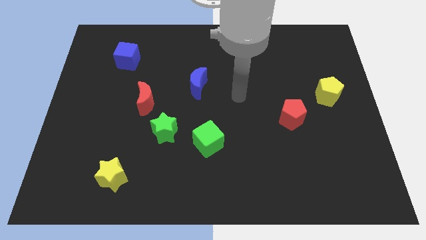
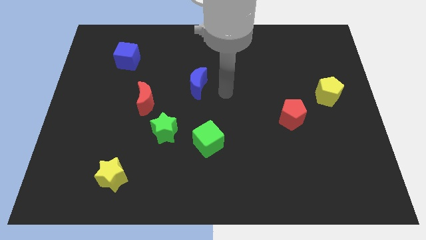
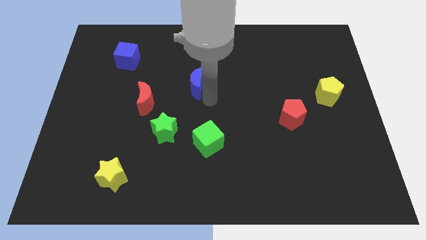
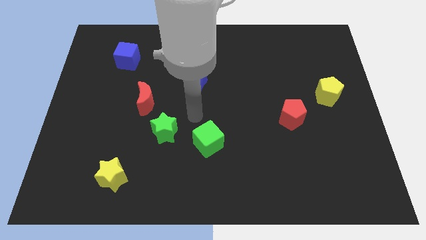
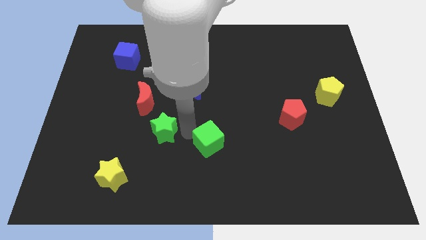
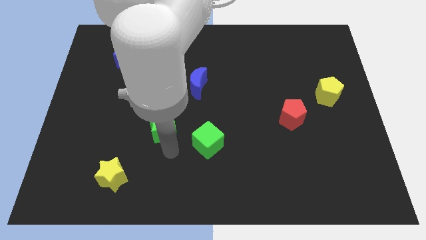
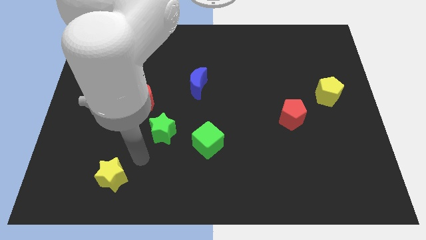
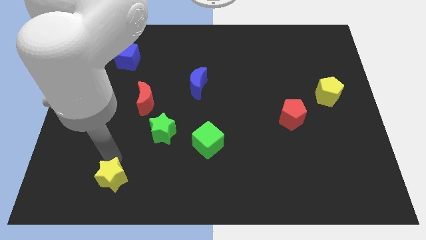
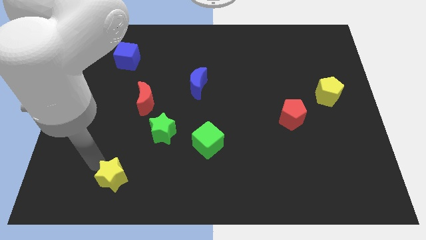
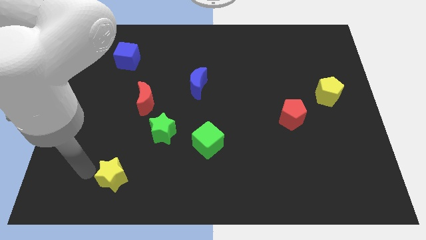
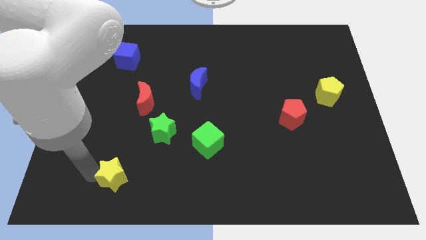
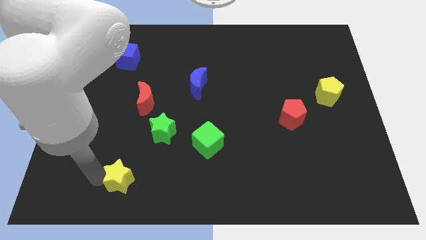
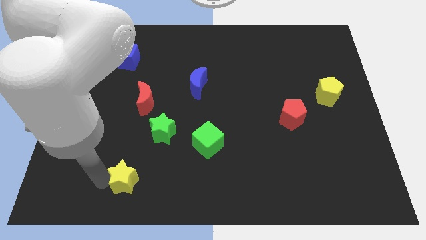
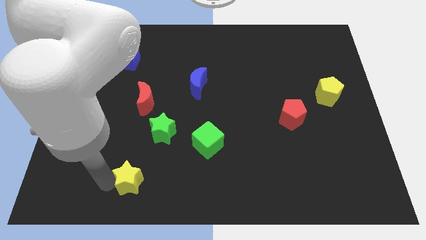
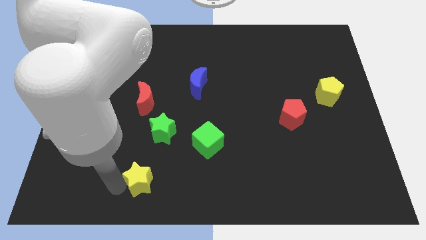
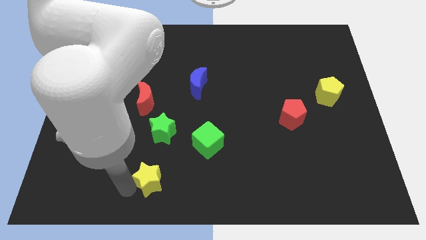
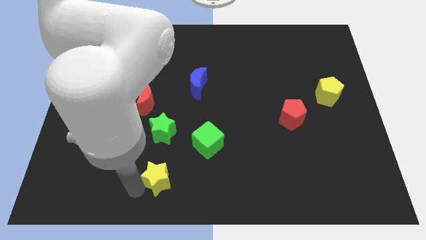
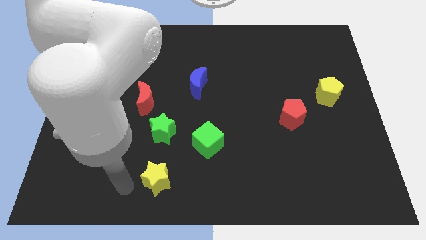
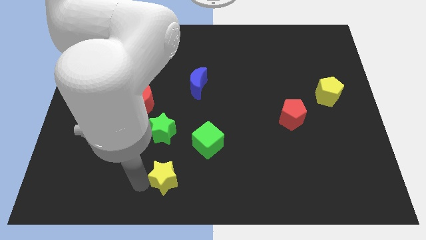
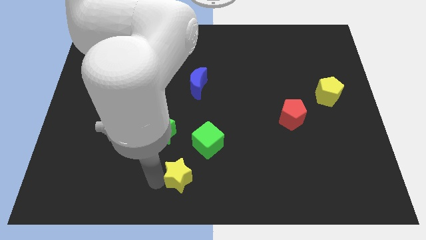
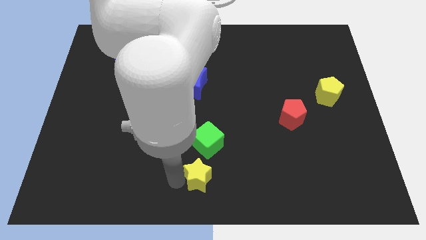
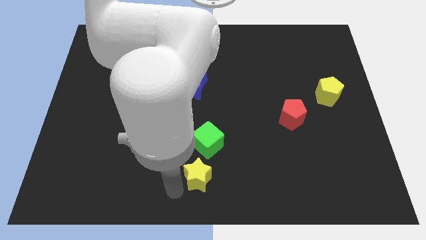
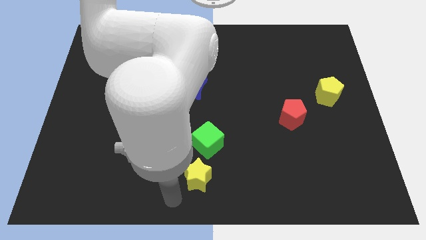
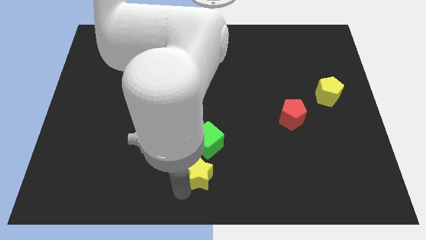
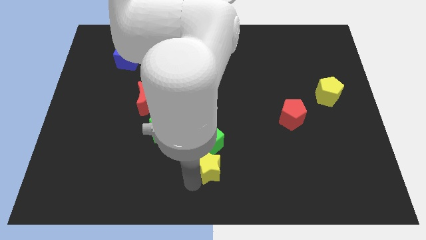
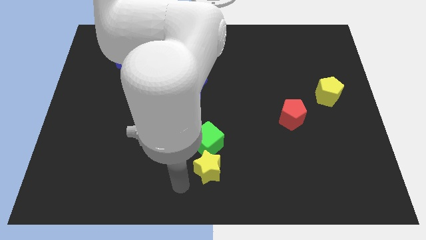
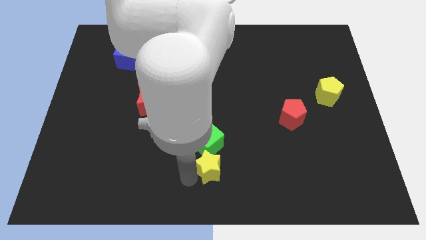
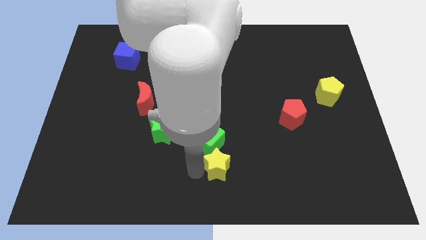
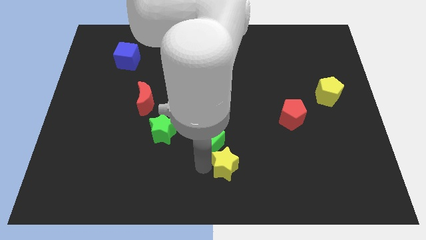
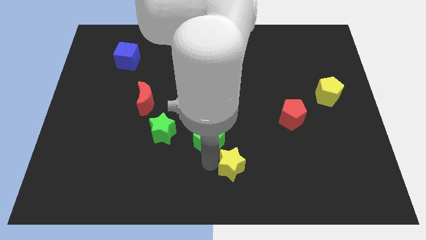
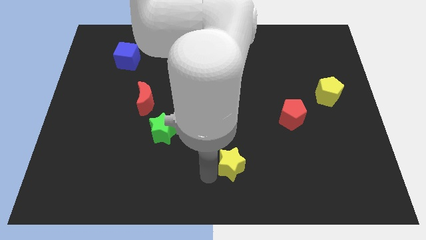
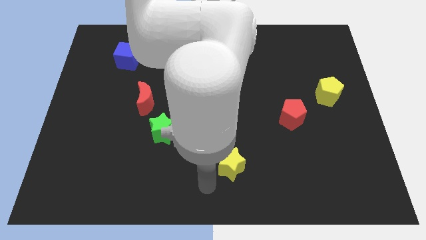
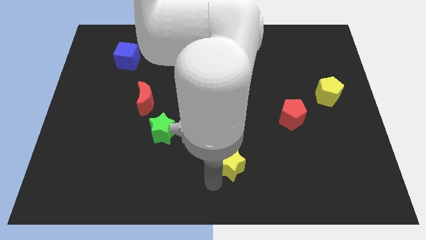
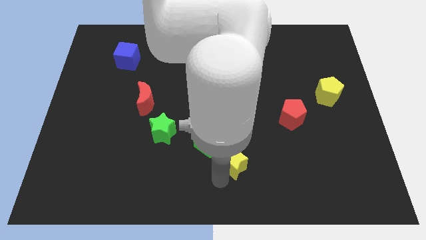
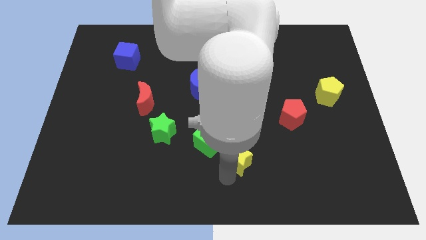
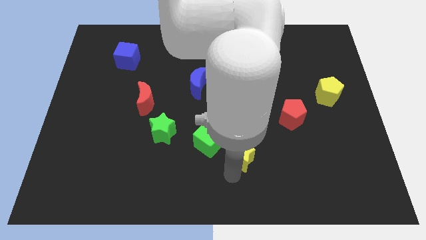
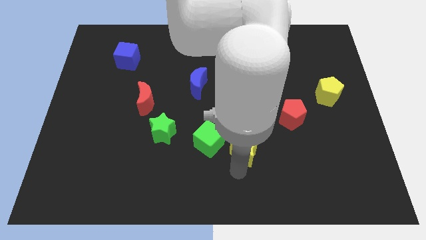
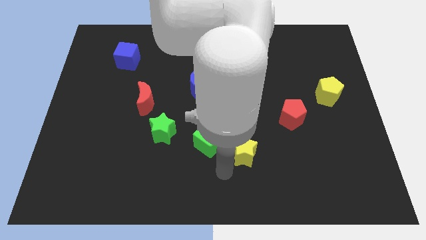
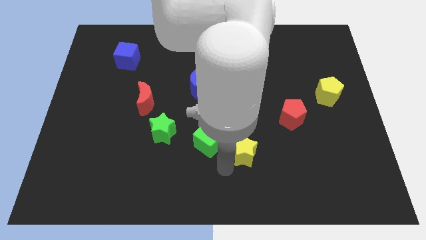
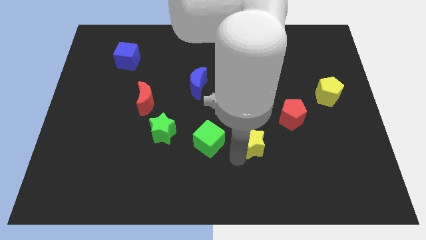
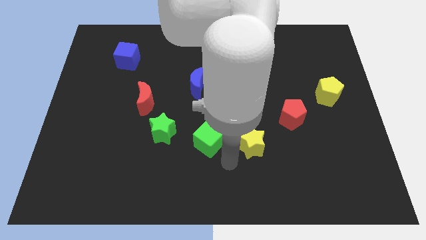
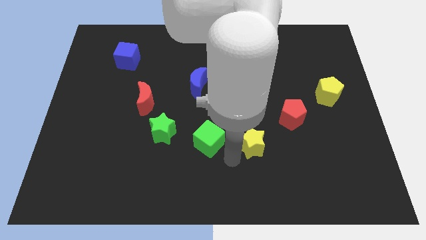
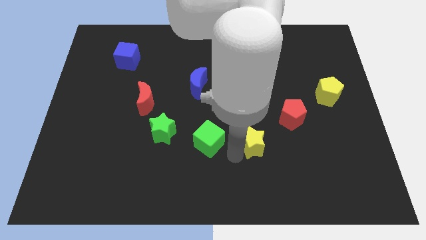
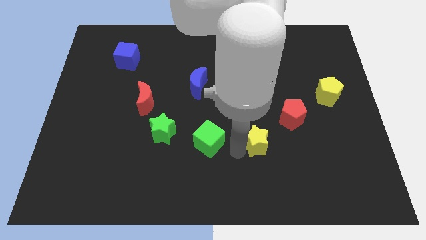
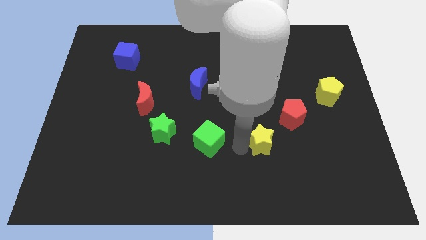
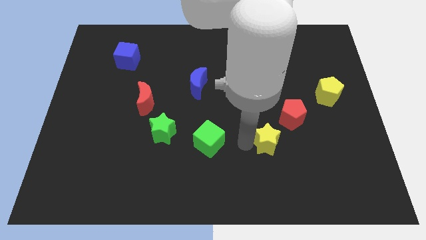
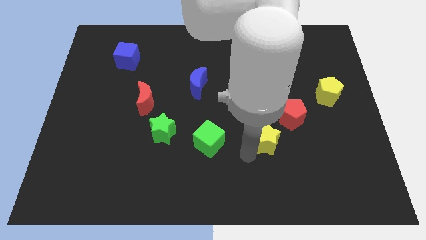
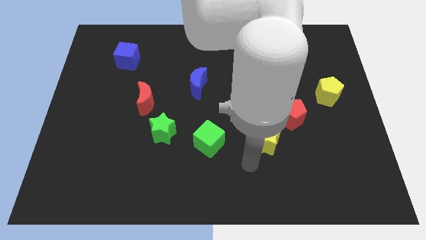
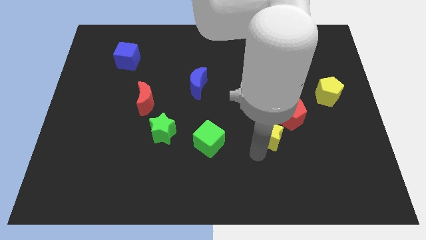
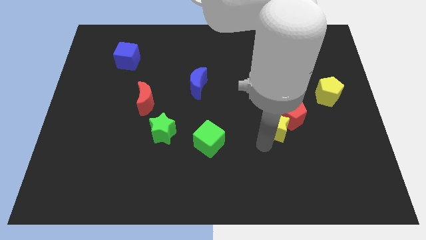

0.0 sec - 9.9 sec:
slide the yellow star to the red pentagon

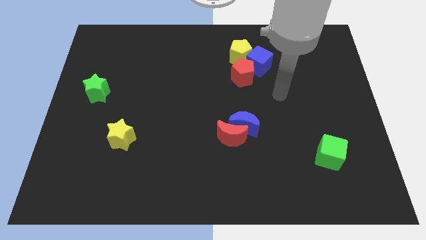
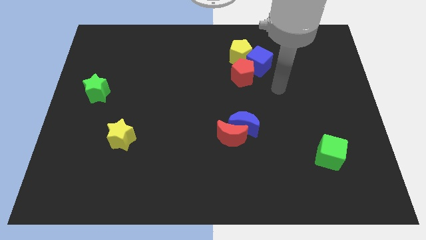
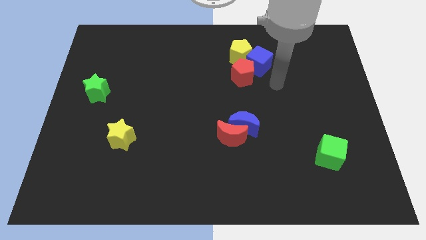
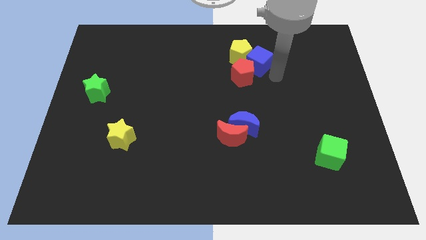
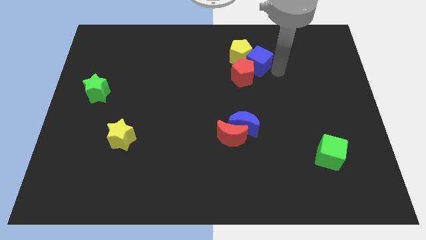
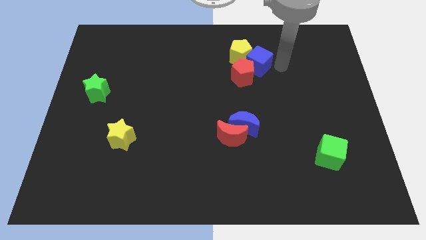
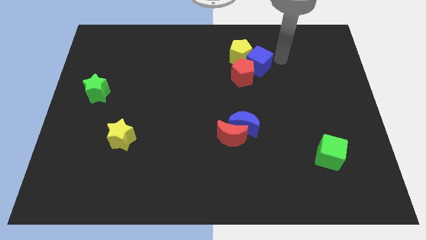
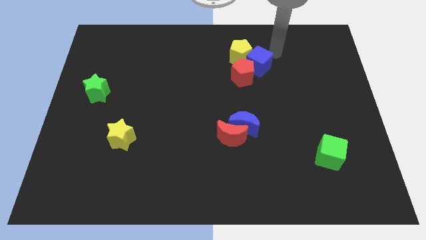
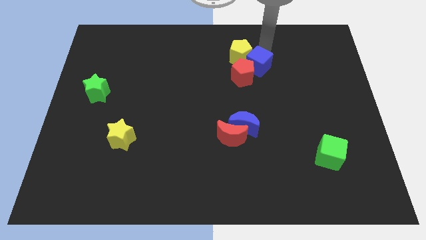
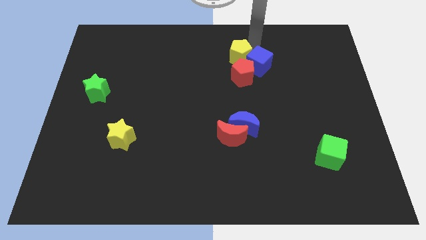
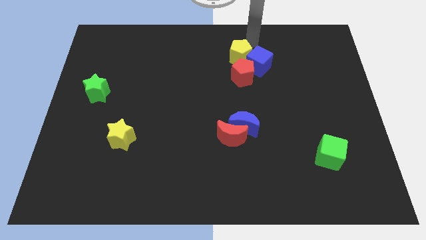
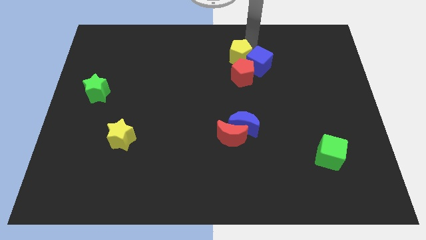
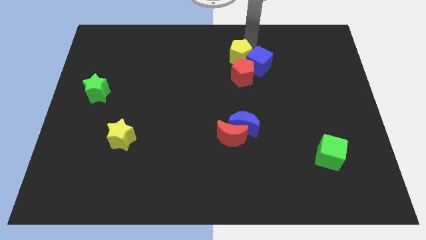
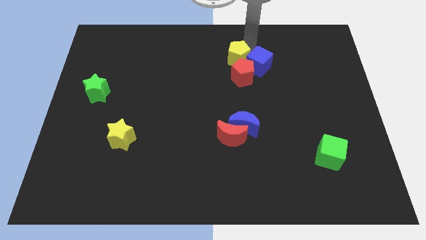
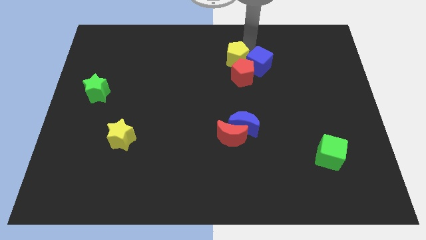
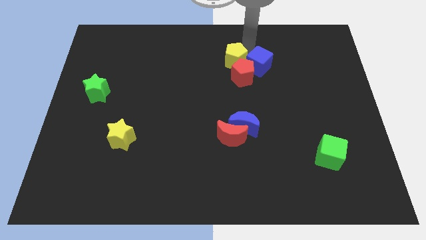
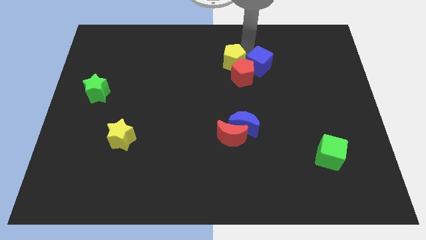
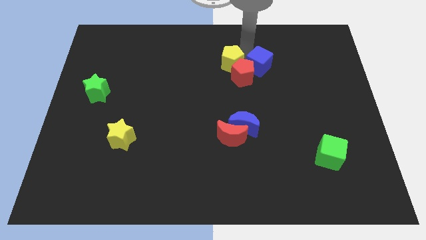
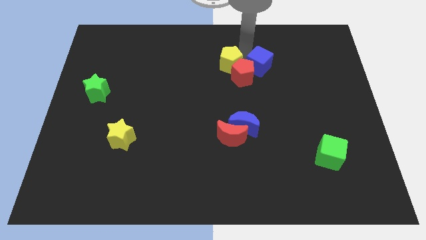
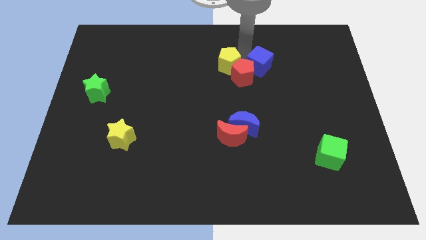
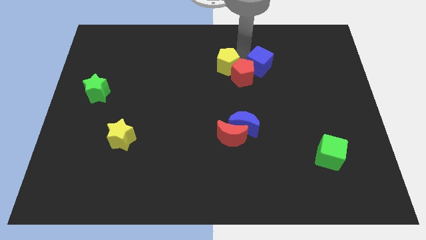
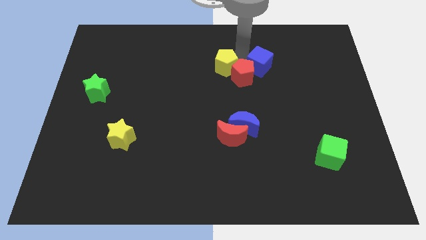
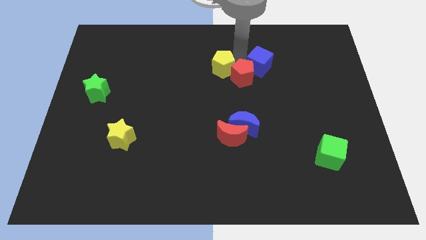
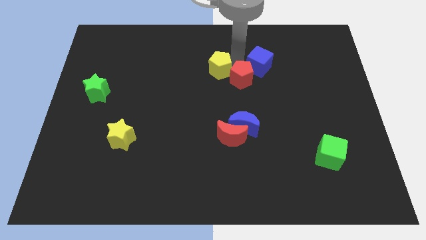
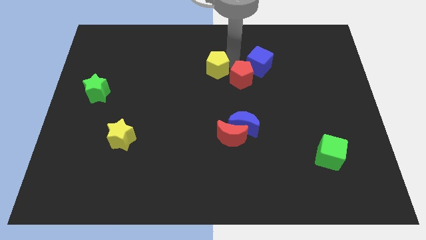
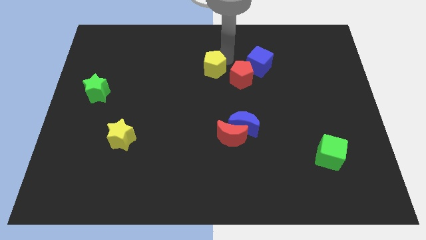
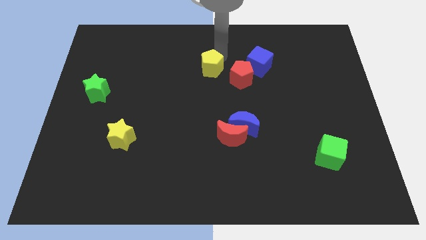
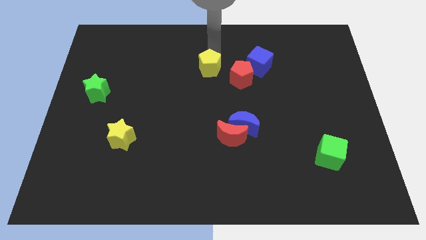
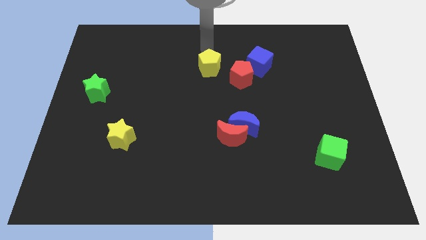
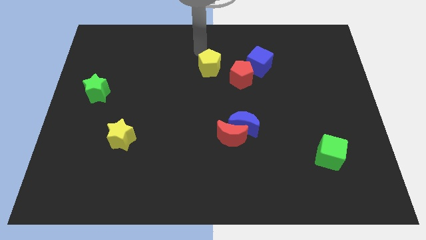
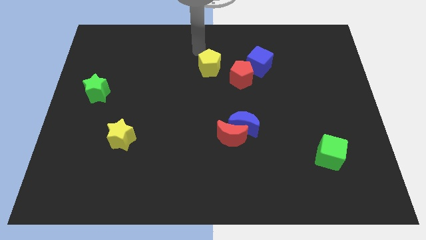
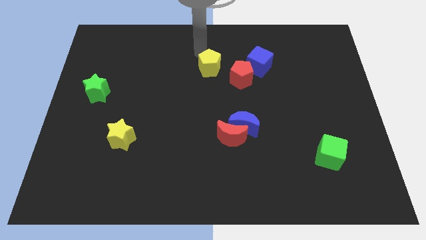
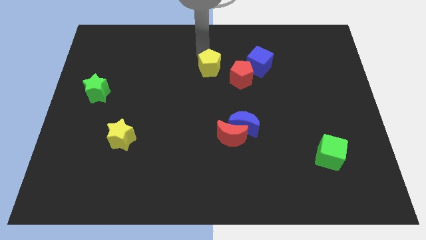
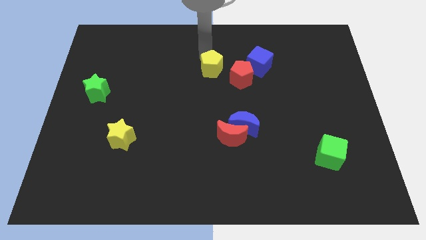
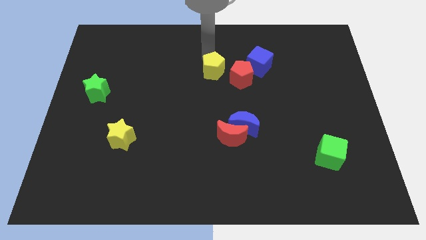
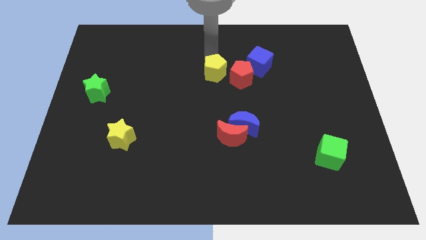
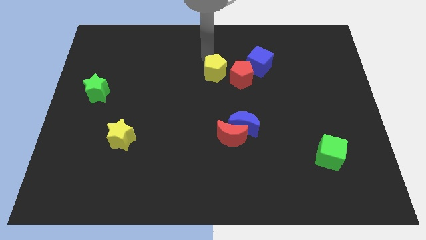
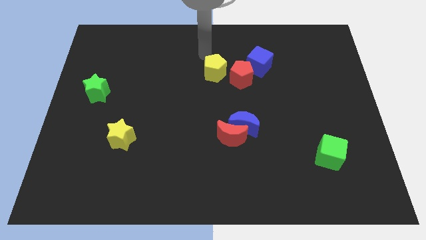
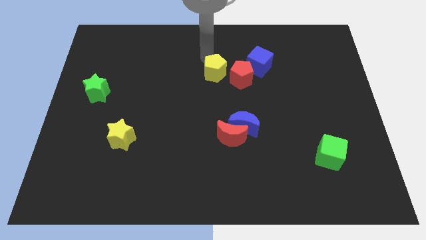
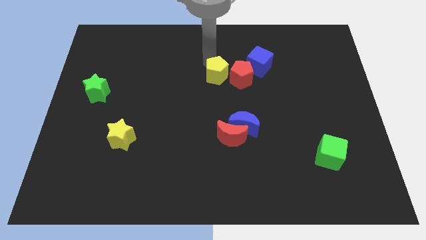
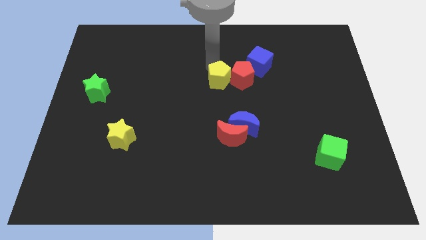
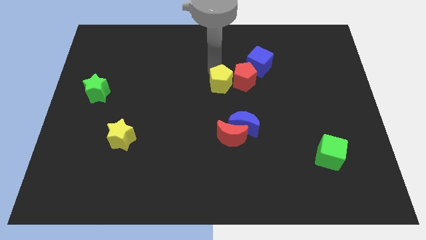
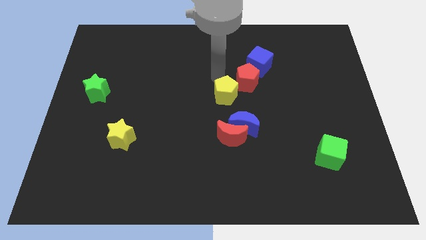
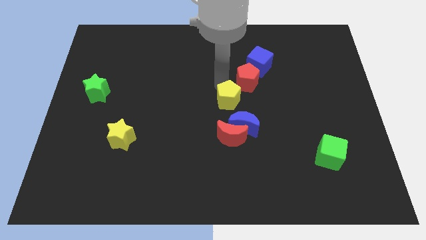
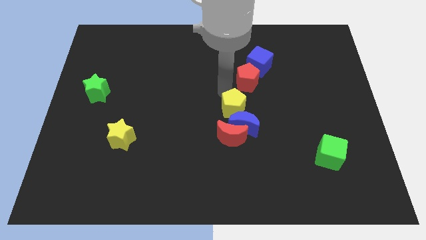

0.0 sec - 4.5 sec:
slide the yellow pentagon to the blue moon
